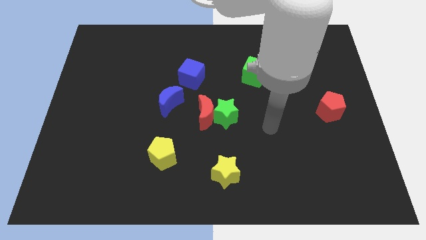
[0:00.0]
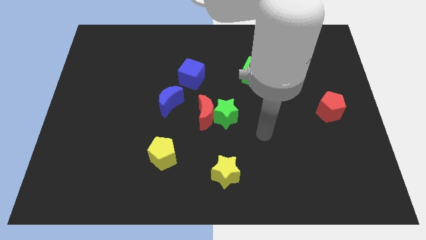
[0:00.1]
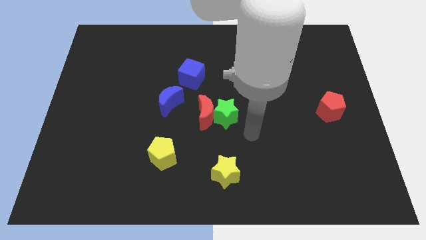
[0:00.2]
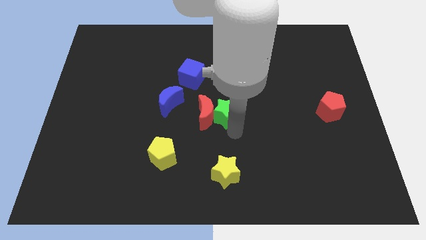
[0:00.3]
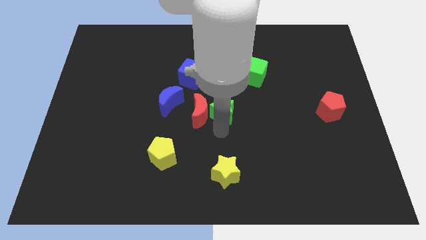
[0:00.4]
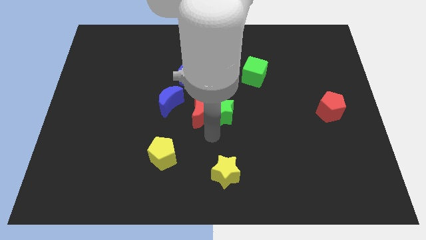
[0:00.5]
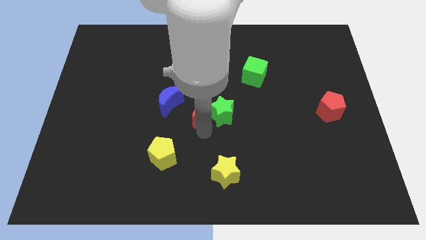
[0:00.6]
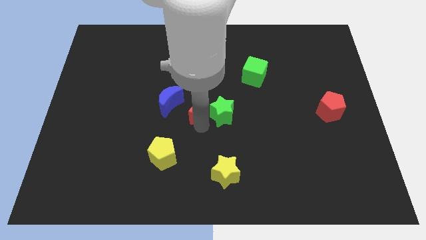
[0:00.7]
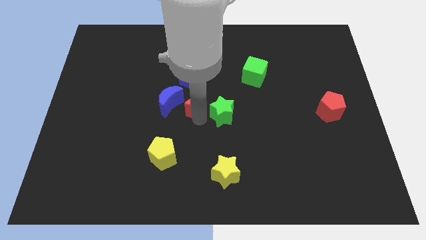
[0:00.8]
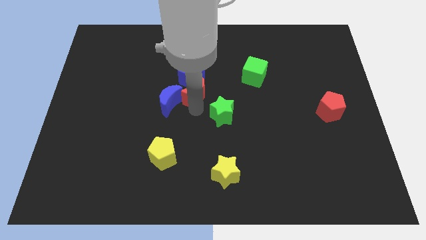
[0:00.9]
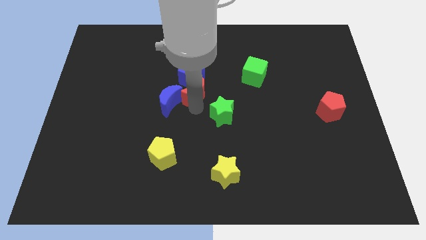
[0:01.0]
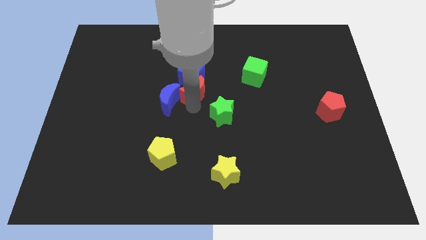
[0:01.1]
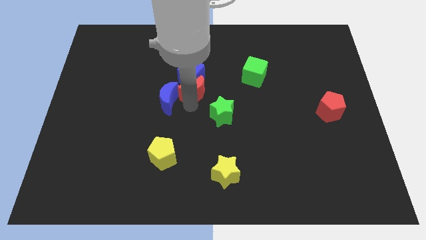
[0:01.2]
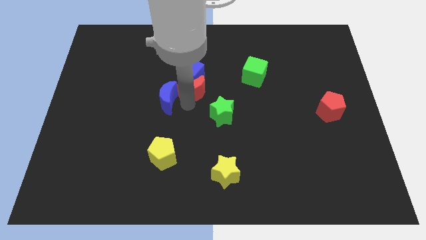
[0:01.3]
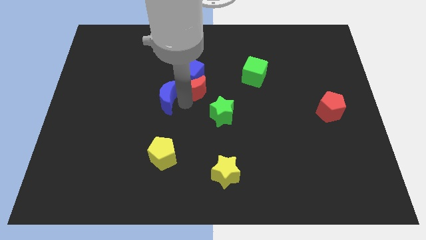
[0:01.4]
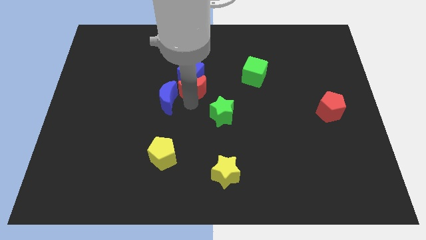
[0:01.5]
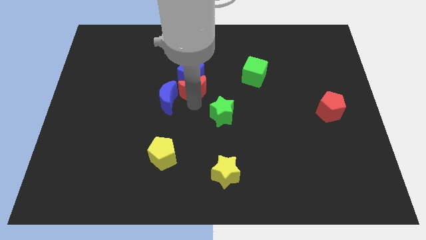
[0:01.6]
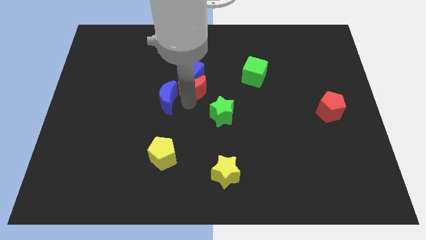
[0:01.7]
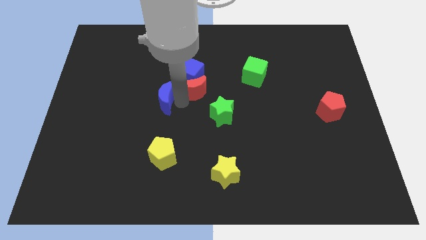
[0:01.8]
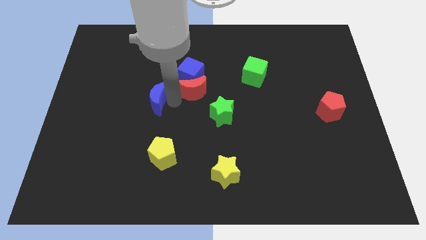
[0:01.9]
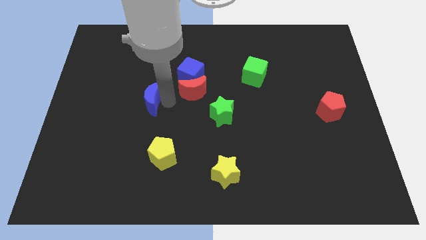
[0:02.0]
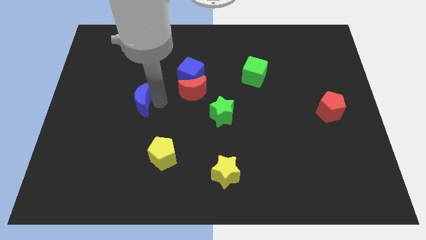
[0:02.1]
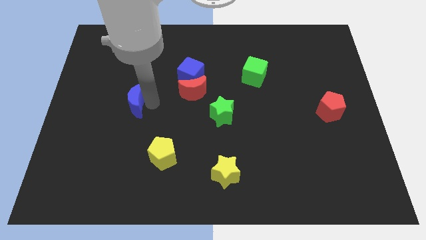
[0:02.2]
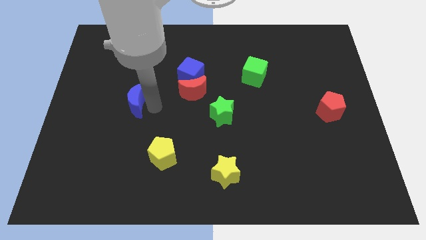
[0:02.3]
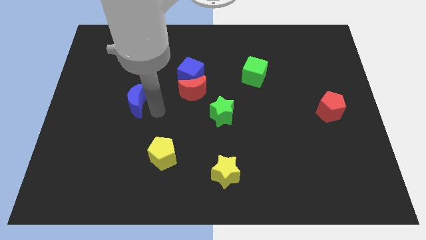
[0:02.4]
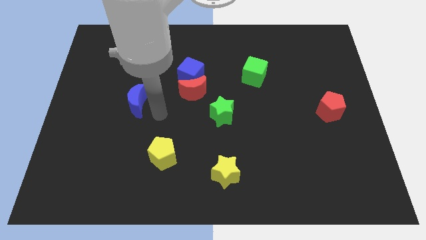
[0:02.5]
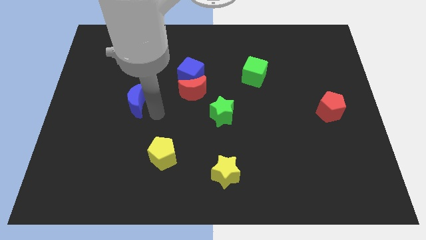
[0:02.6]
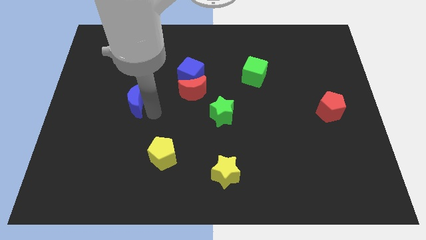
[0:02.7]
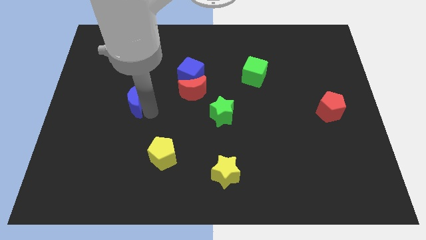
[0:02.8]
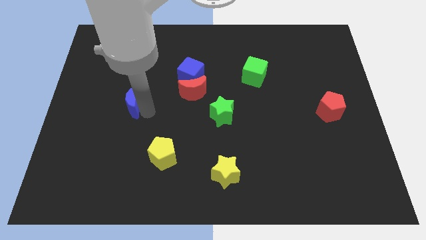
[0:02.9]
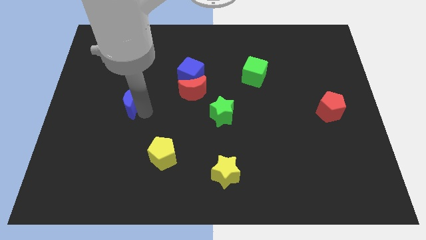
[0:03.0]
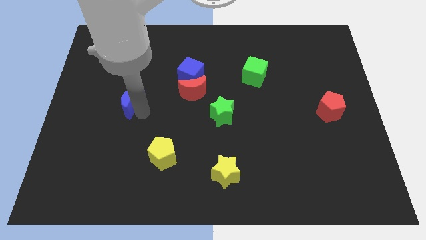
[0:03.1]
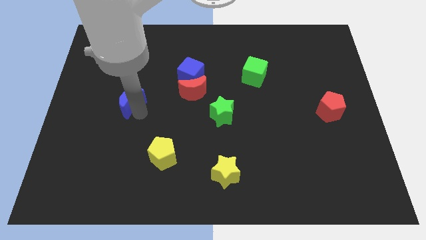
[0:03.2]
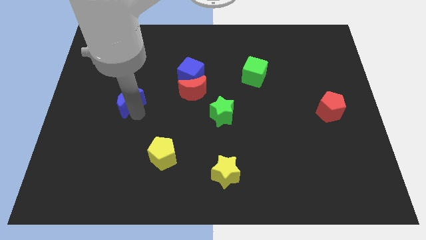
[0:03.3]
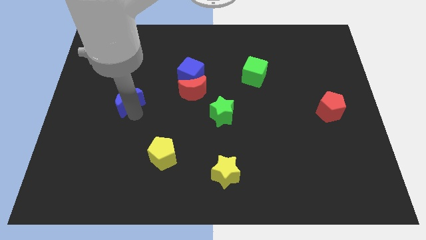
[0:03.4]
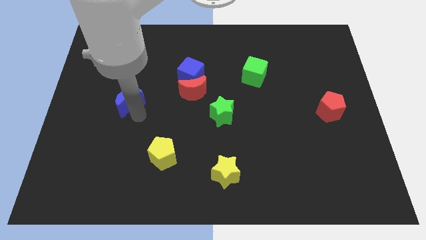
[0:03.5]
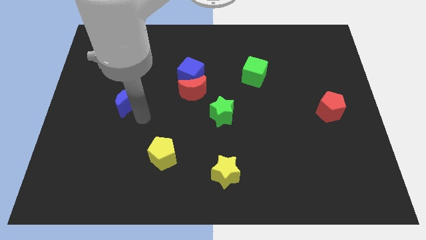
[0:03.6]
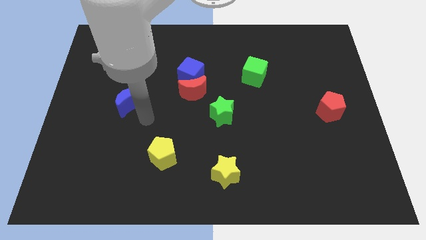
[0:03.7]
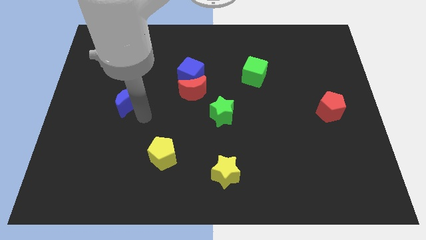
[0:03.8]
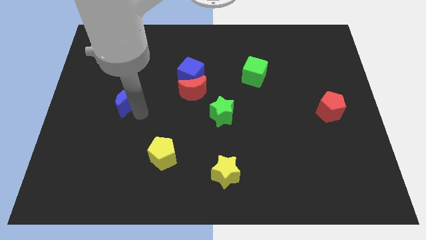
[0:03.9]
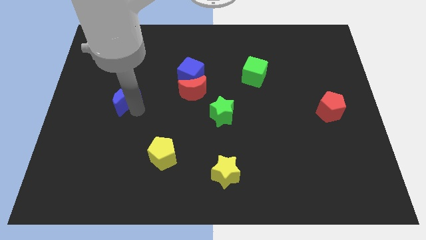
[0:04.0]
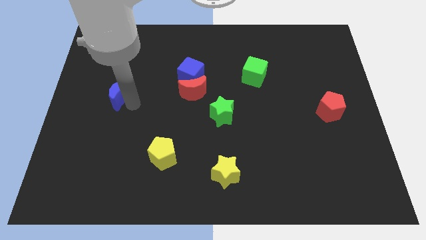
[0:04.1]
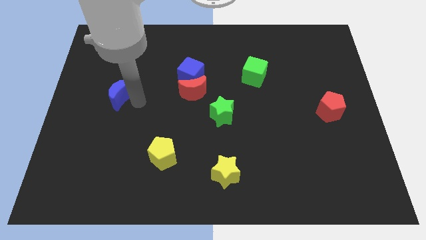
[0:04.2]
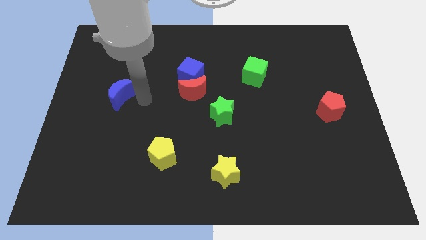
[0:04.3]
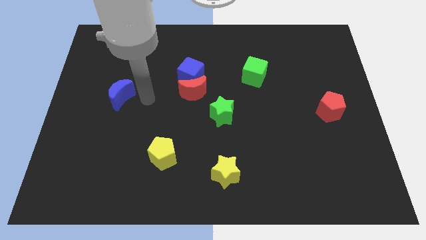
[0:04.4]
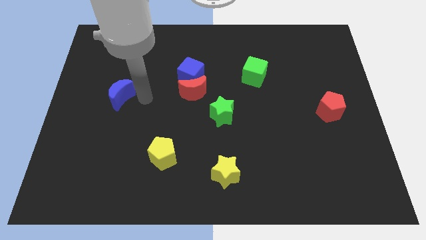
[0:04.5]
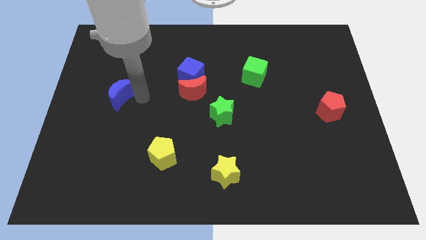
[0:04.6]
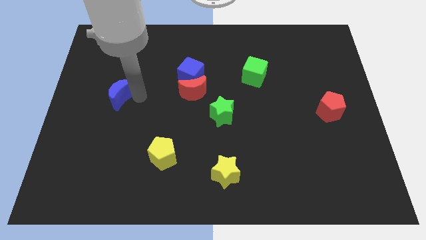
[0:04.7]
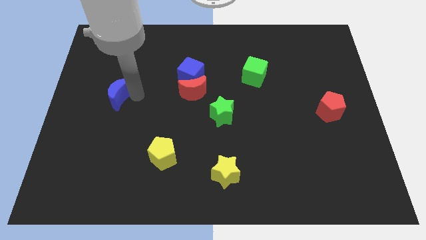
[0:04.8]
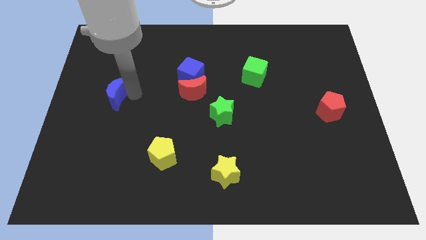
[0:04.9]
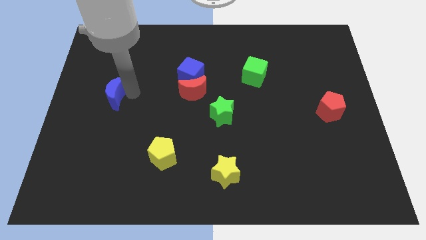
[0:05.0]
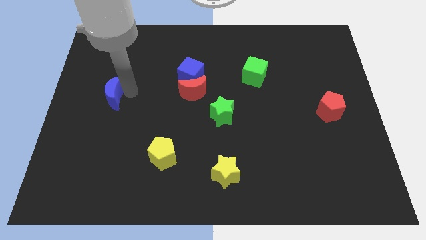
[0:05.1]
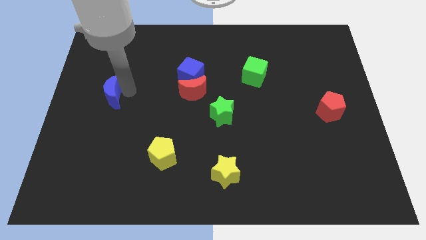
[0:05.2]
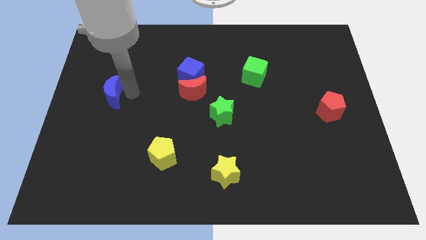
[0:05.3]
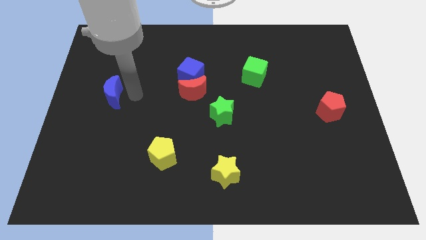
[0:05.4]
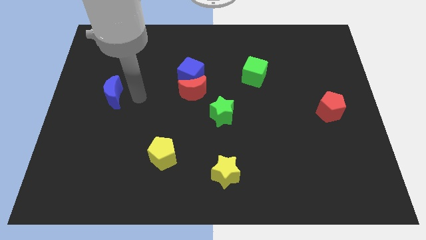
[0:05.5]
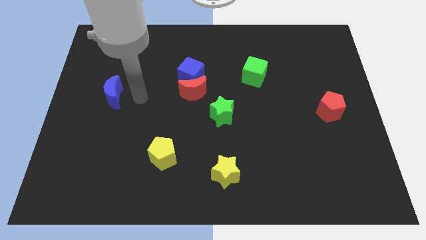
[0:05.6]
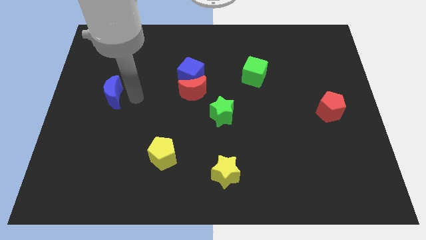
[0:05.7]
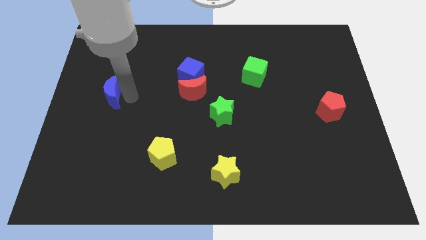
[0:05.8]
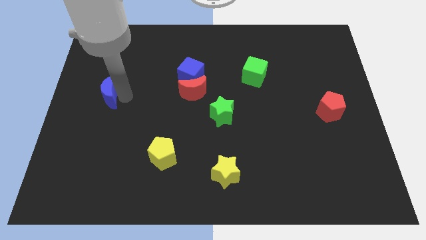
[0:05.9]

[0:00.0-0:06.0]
move the blue moon to the left side

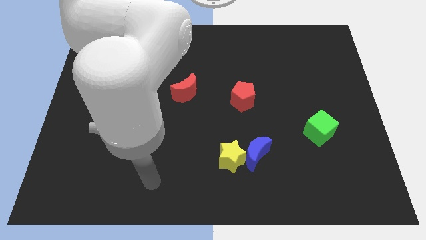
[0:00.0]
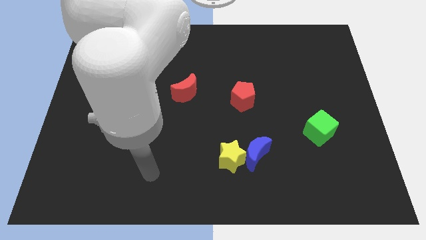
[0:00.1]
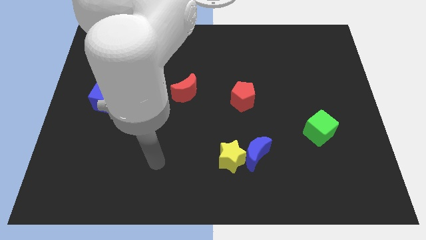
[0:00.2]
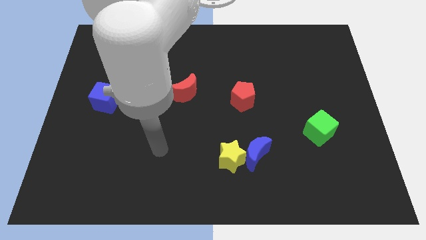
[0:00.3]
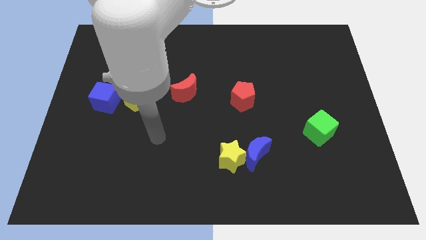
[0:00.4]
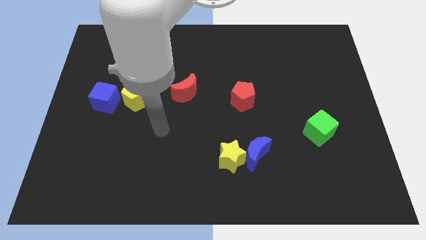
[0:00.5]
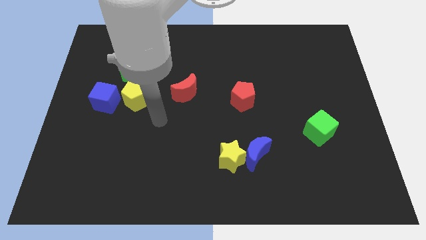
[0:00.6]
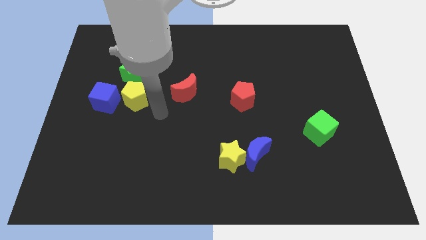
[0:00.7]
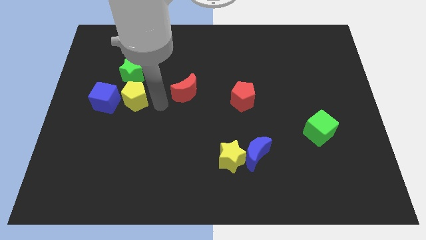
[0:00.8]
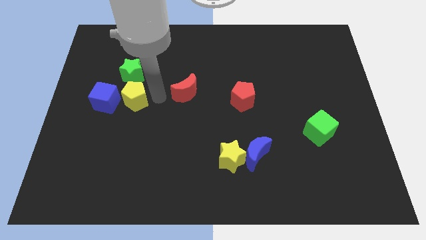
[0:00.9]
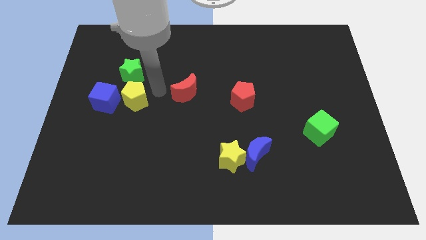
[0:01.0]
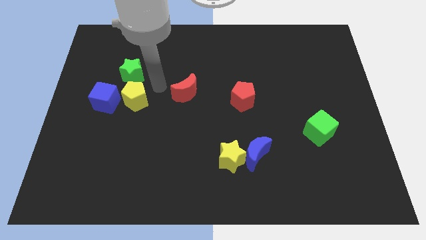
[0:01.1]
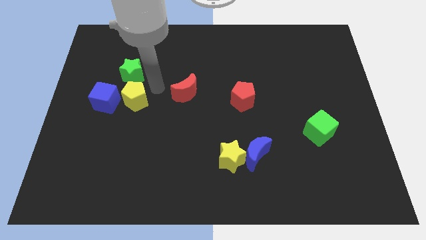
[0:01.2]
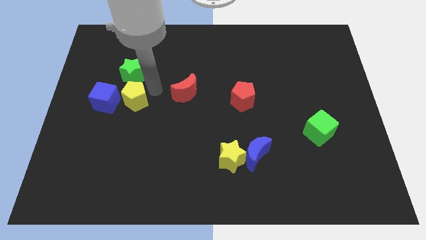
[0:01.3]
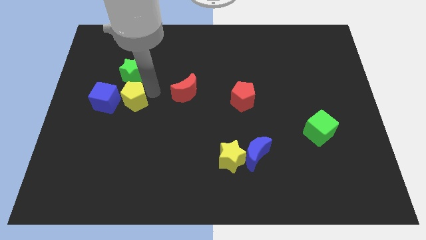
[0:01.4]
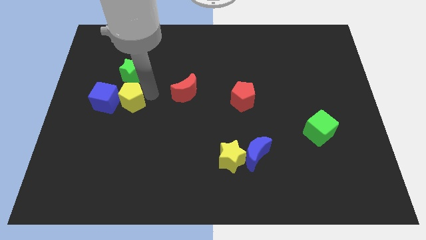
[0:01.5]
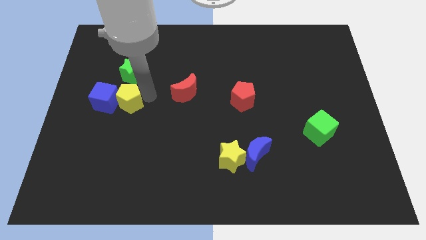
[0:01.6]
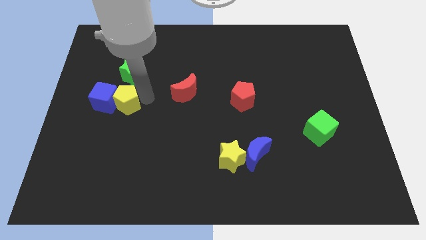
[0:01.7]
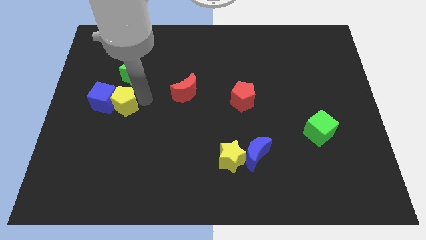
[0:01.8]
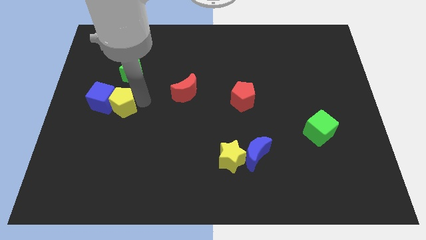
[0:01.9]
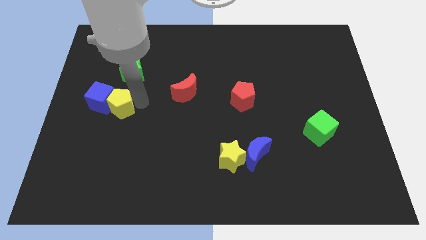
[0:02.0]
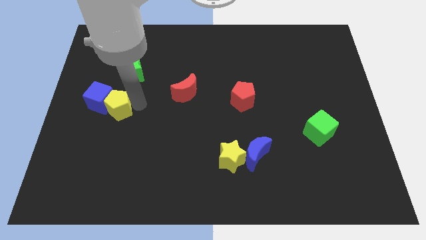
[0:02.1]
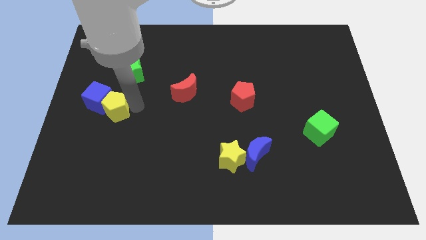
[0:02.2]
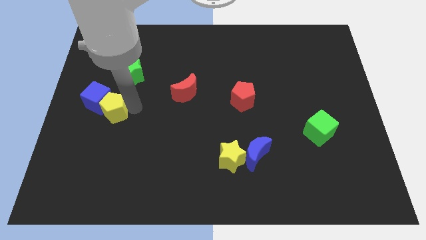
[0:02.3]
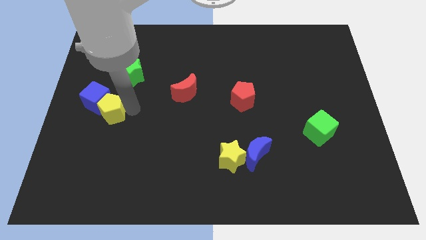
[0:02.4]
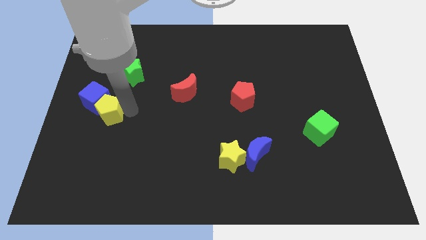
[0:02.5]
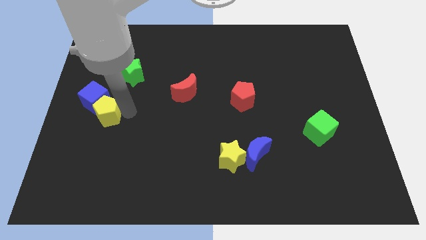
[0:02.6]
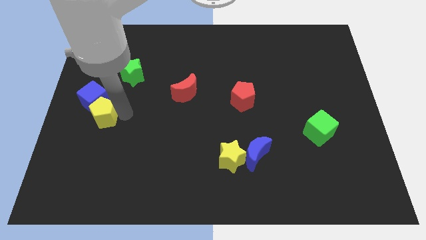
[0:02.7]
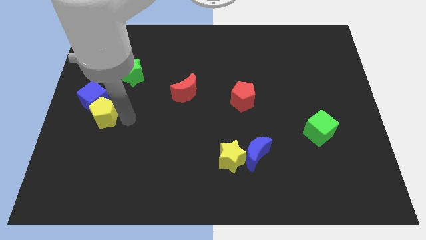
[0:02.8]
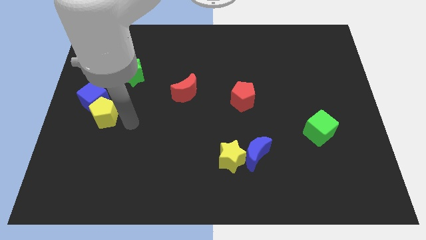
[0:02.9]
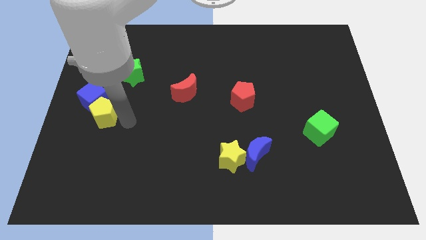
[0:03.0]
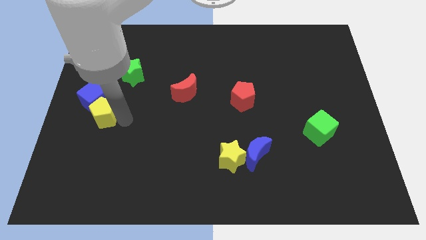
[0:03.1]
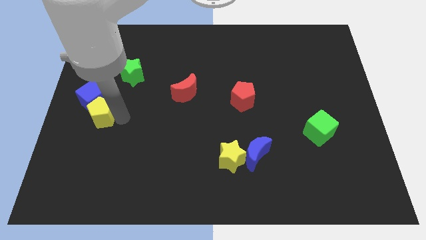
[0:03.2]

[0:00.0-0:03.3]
push the yellow pentagon to the left side of the board
